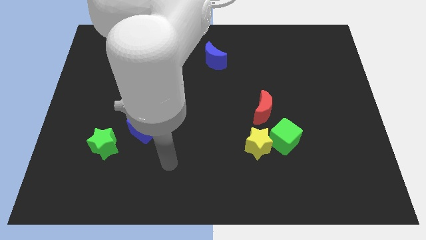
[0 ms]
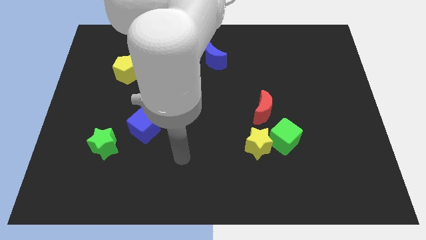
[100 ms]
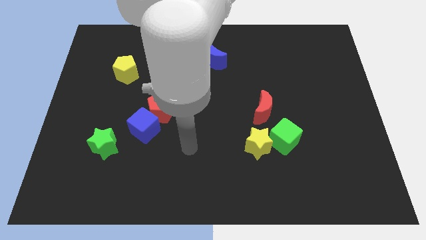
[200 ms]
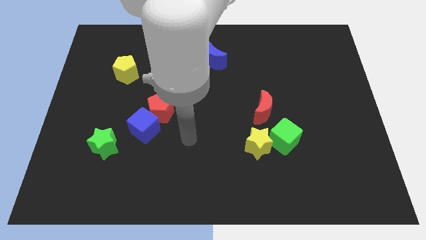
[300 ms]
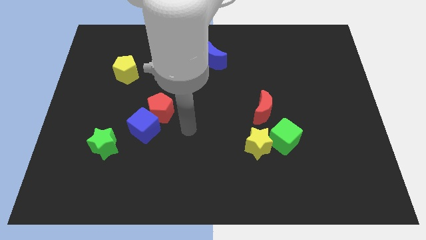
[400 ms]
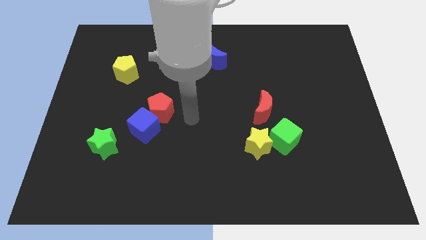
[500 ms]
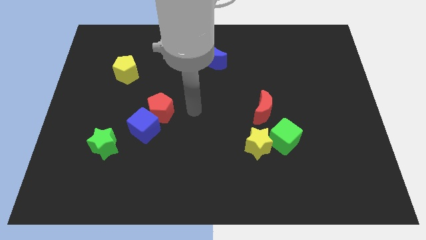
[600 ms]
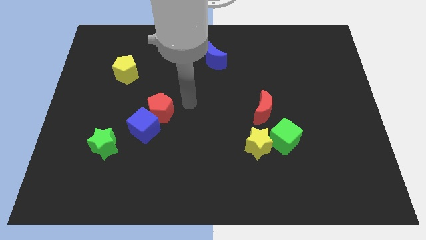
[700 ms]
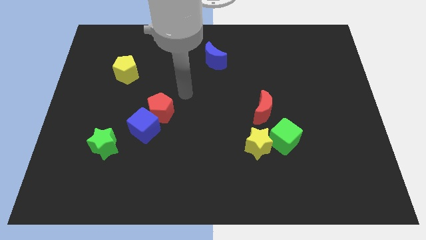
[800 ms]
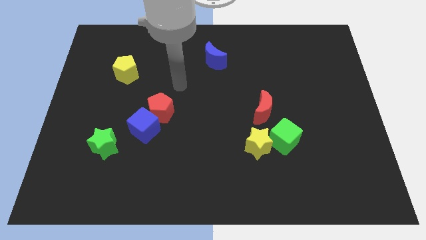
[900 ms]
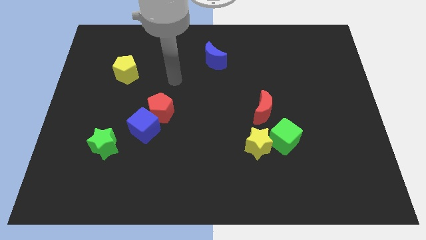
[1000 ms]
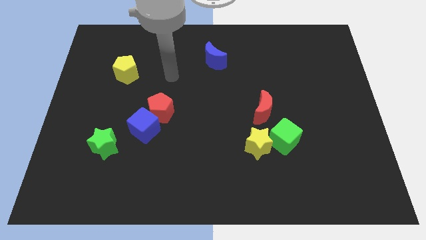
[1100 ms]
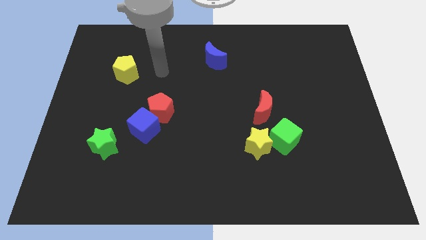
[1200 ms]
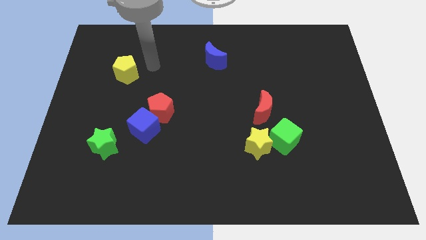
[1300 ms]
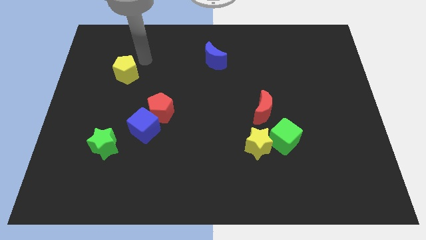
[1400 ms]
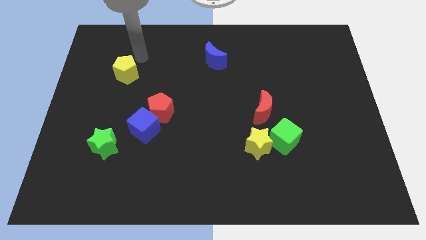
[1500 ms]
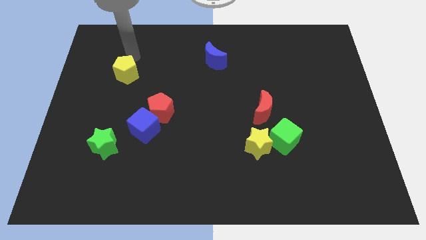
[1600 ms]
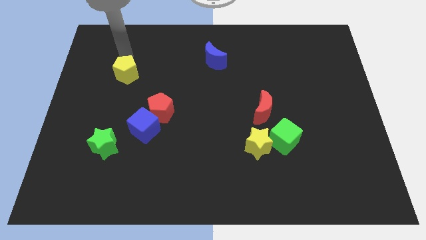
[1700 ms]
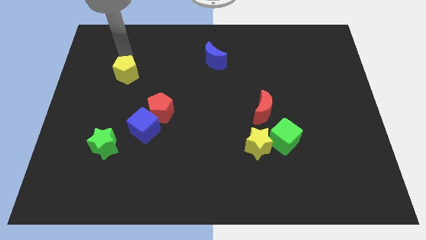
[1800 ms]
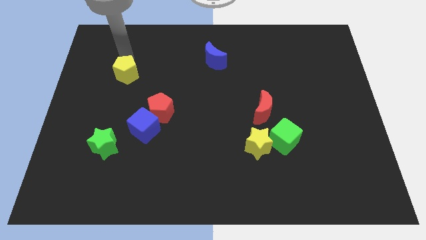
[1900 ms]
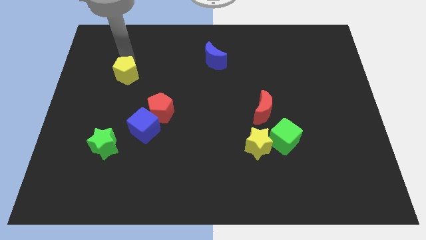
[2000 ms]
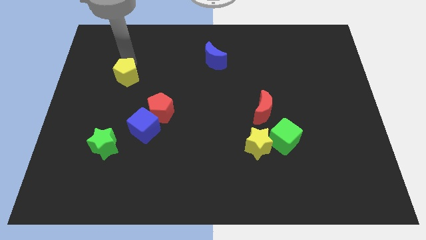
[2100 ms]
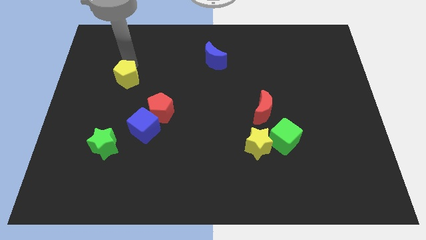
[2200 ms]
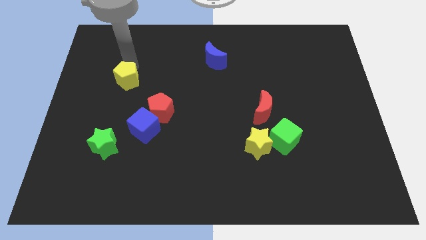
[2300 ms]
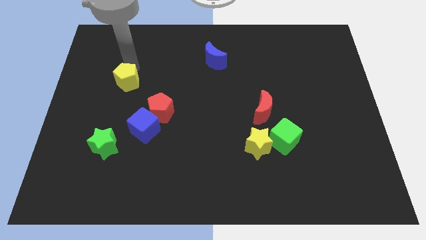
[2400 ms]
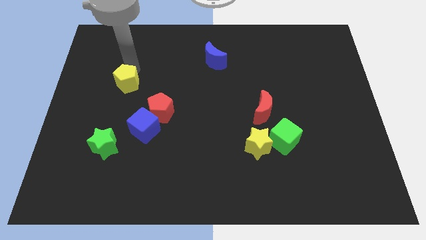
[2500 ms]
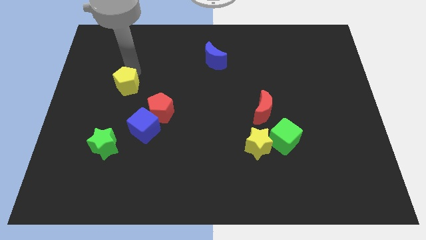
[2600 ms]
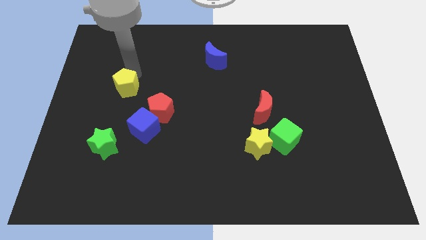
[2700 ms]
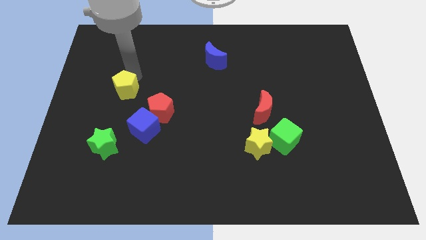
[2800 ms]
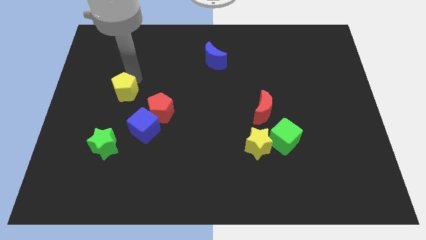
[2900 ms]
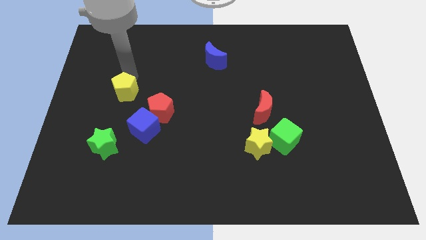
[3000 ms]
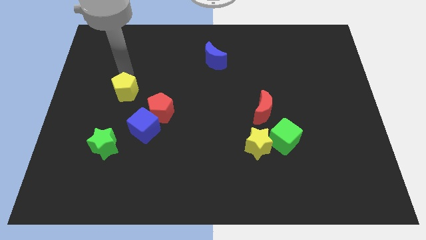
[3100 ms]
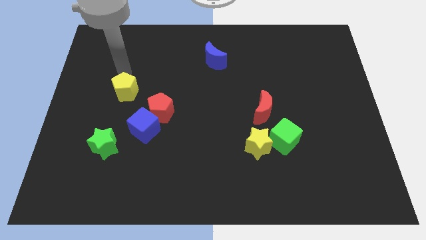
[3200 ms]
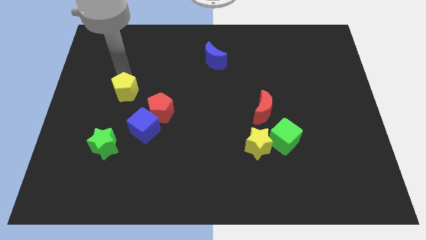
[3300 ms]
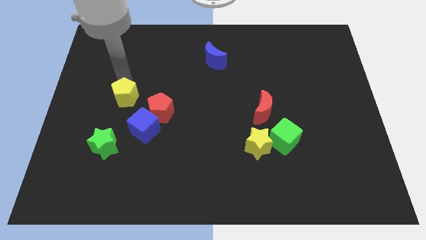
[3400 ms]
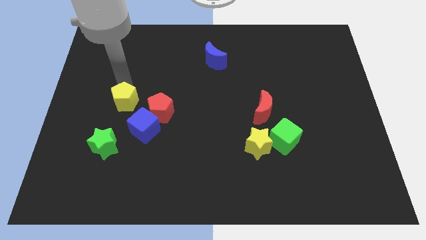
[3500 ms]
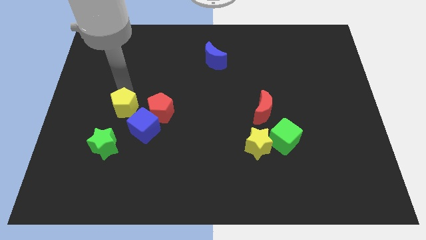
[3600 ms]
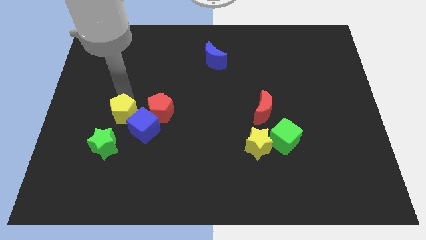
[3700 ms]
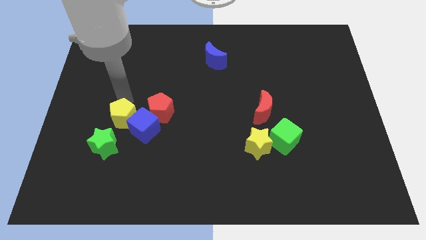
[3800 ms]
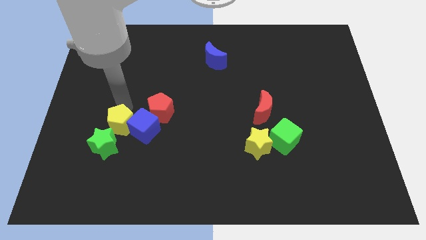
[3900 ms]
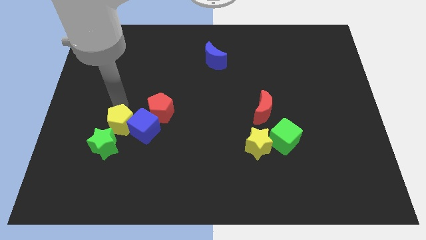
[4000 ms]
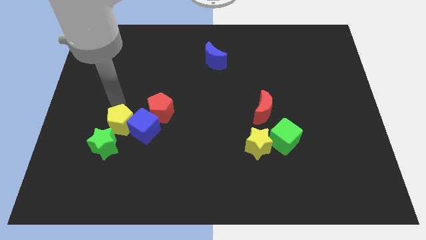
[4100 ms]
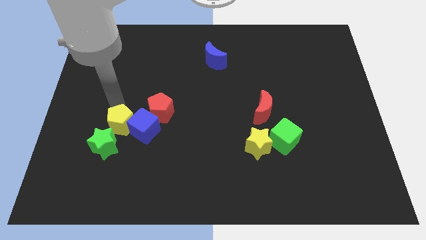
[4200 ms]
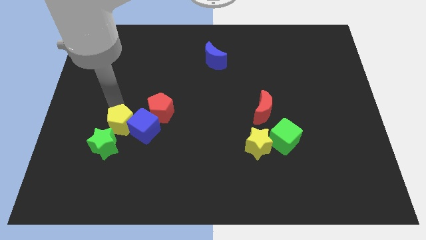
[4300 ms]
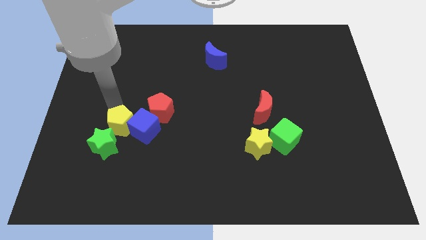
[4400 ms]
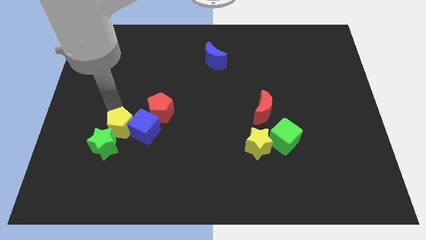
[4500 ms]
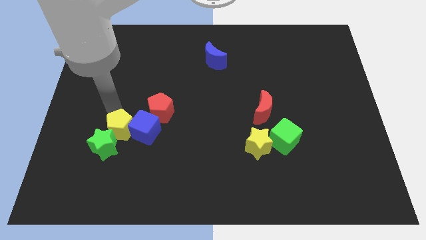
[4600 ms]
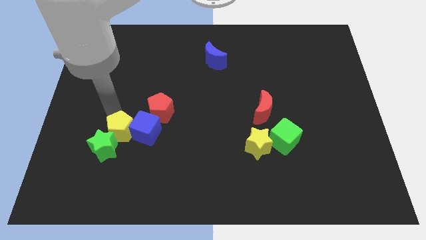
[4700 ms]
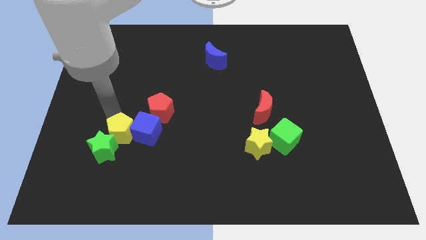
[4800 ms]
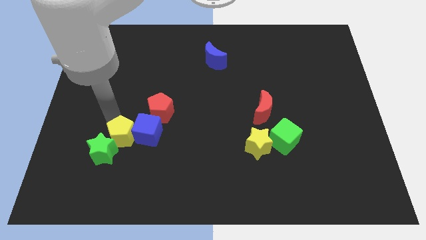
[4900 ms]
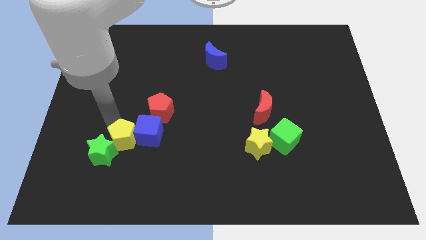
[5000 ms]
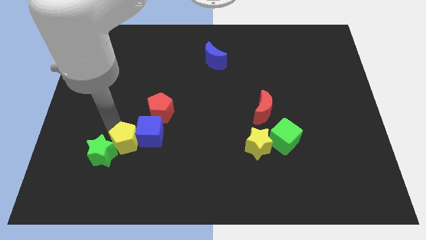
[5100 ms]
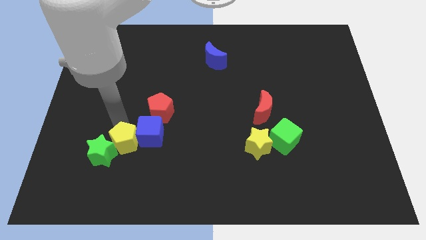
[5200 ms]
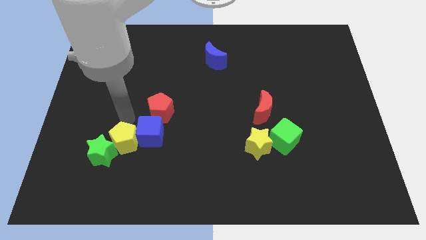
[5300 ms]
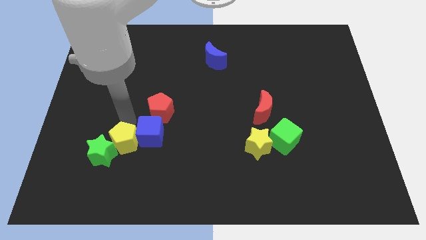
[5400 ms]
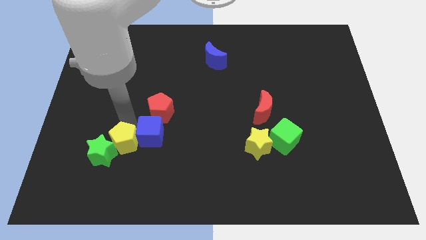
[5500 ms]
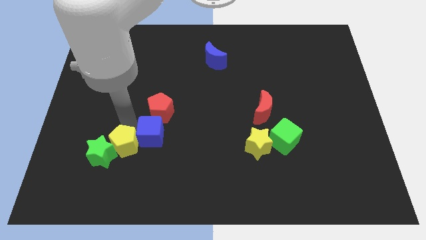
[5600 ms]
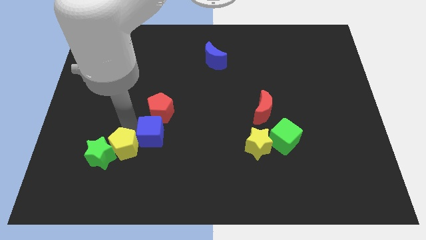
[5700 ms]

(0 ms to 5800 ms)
move the yellow pentagon to the bottom right side of the green star
